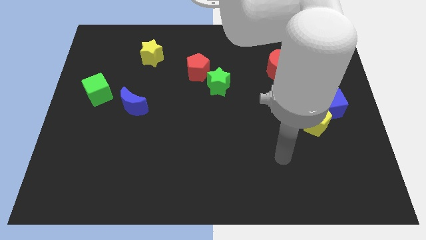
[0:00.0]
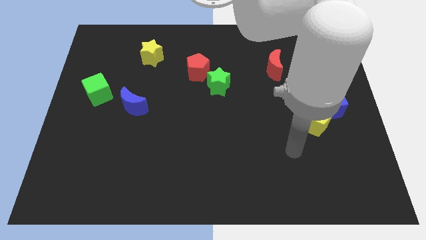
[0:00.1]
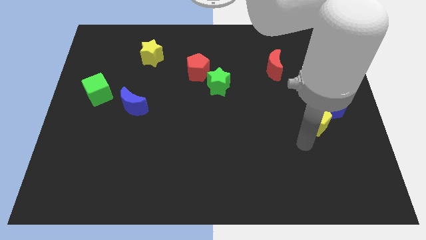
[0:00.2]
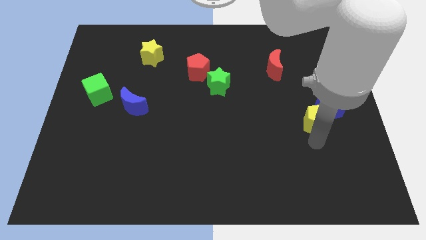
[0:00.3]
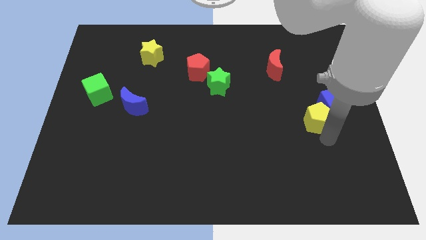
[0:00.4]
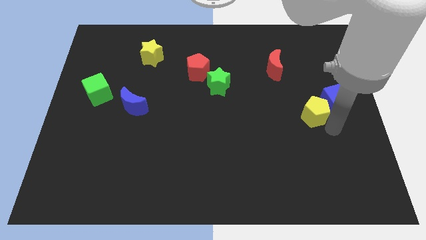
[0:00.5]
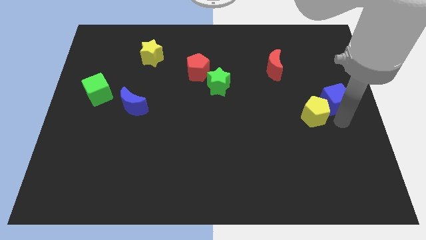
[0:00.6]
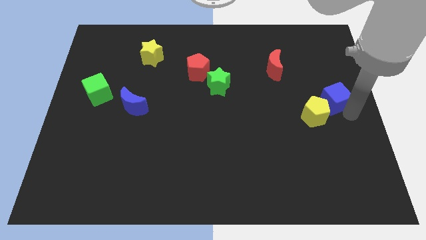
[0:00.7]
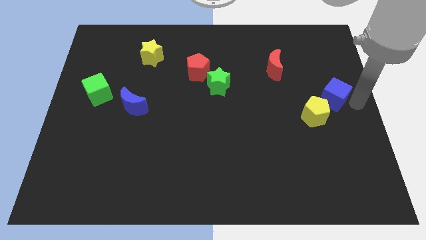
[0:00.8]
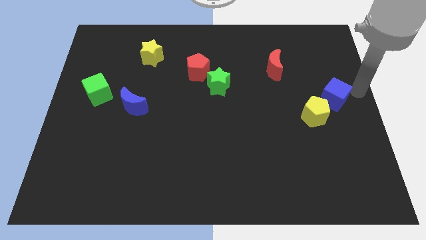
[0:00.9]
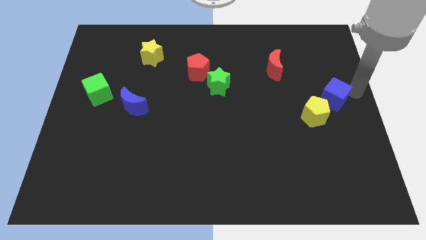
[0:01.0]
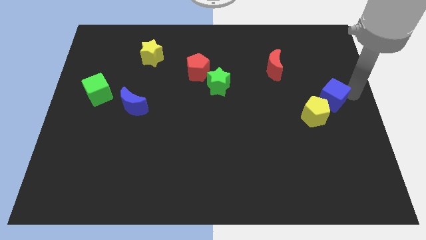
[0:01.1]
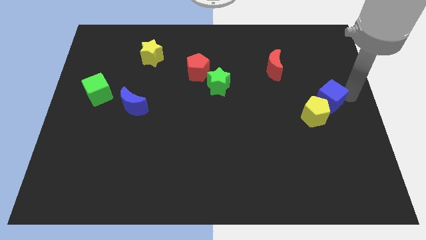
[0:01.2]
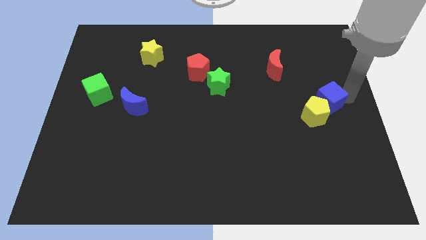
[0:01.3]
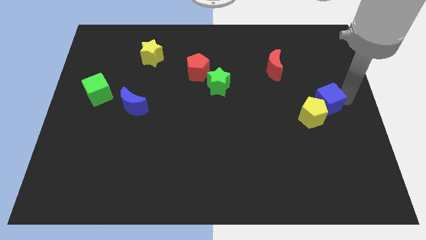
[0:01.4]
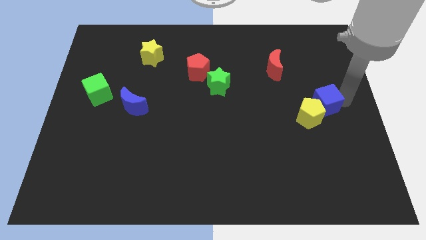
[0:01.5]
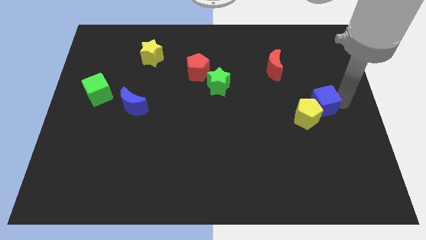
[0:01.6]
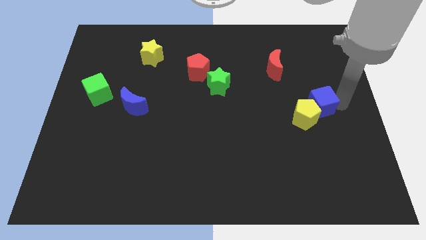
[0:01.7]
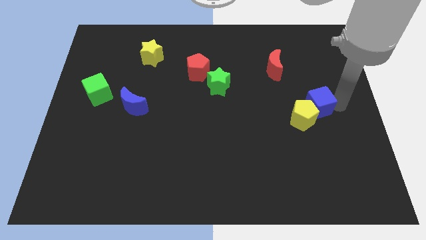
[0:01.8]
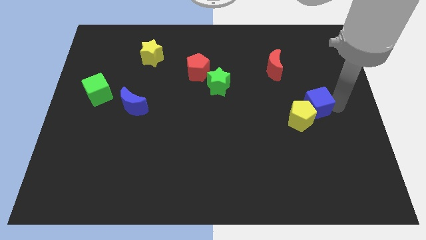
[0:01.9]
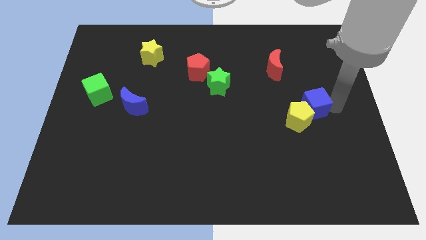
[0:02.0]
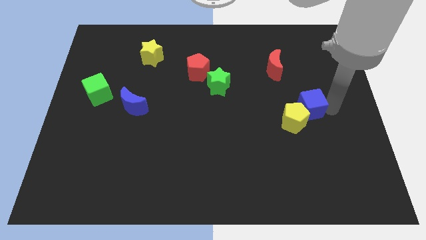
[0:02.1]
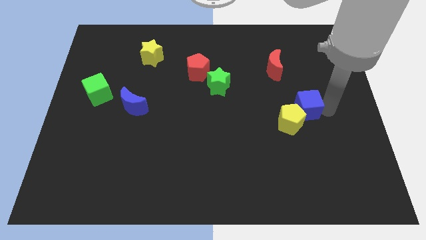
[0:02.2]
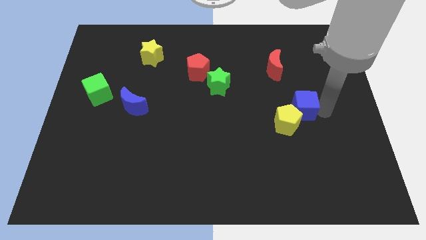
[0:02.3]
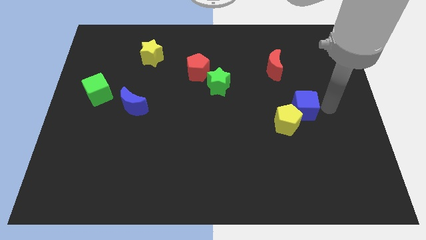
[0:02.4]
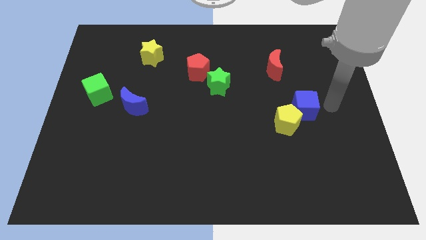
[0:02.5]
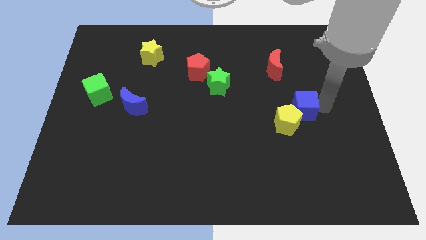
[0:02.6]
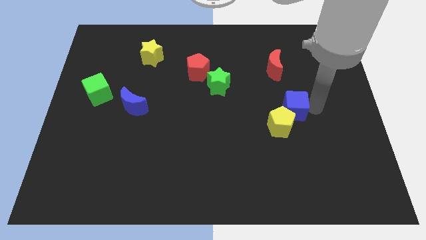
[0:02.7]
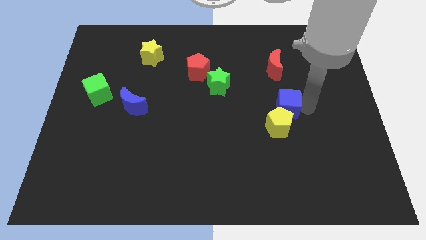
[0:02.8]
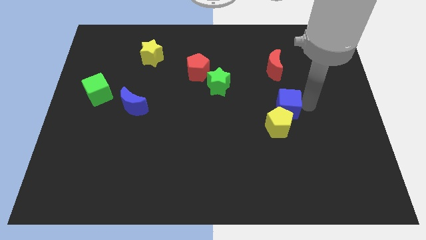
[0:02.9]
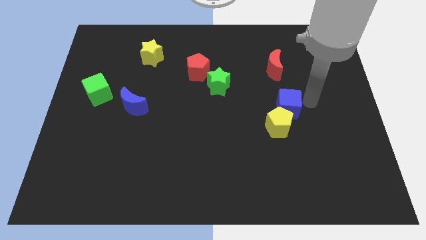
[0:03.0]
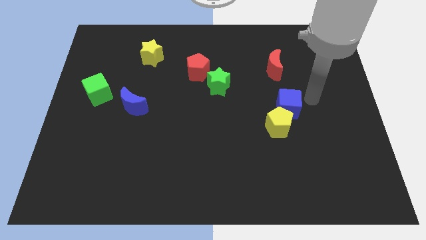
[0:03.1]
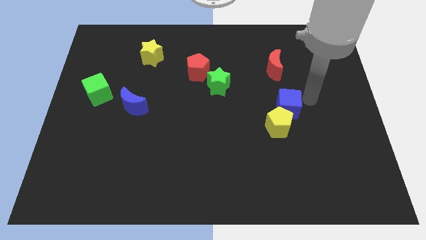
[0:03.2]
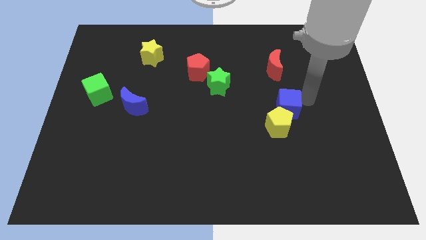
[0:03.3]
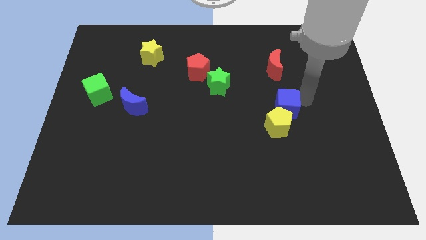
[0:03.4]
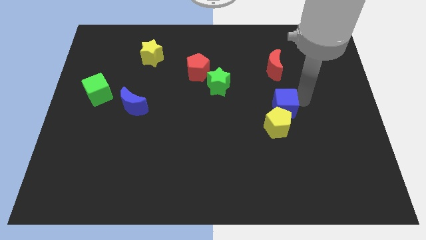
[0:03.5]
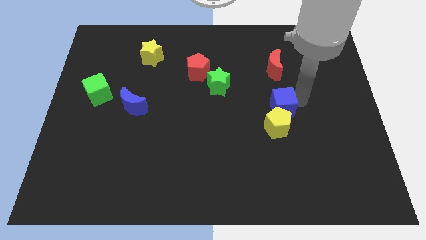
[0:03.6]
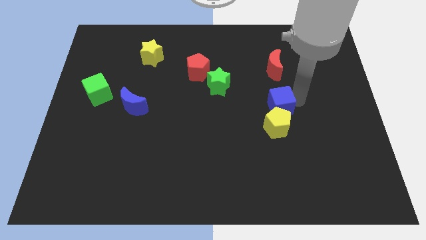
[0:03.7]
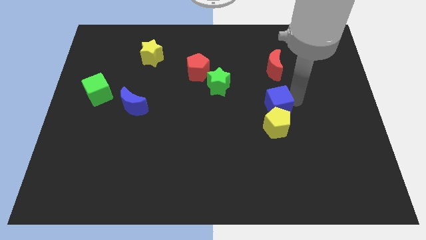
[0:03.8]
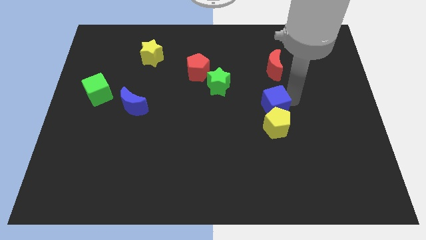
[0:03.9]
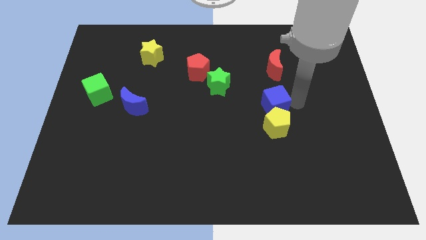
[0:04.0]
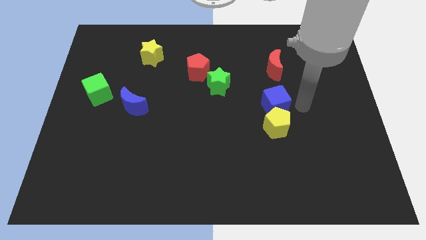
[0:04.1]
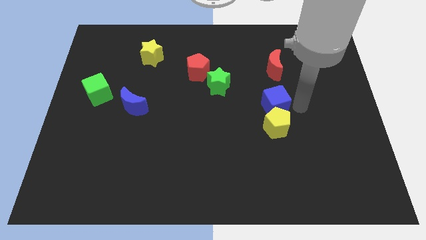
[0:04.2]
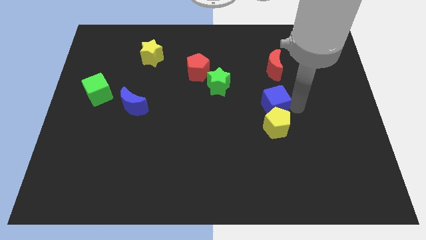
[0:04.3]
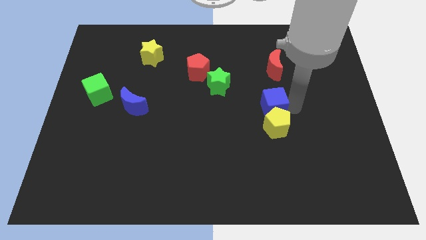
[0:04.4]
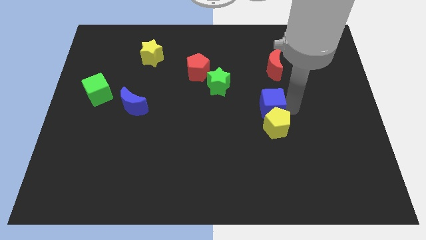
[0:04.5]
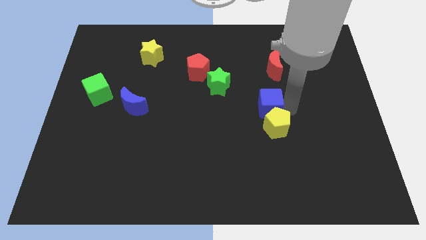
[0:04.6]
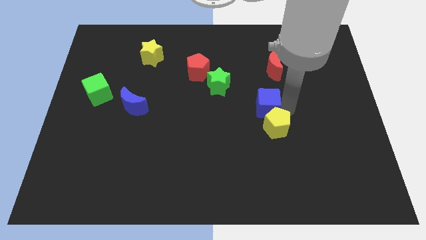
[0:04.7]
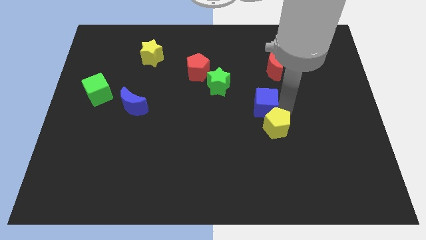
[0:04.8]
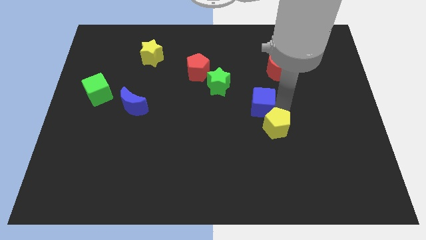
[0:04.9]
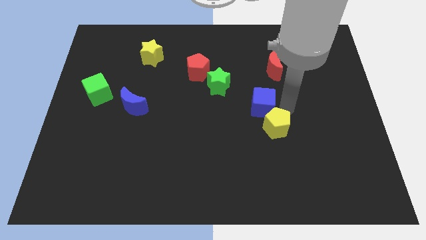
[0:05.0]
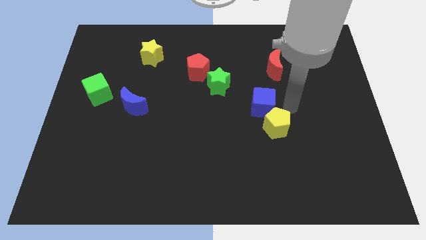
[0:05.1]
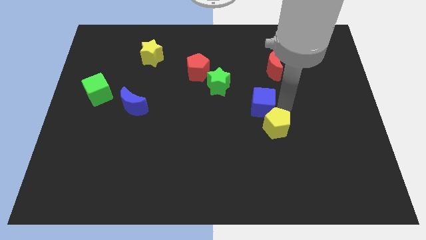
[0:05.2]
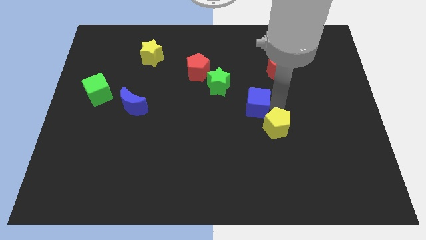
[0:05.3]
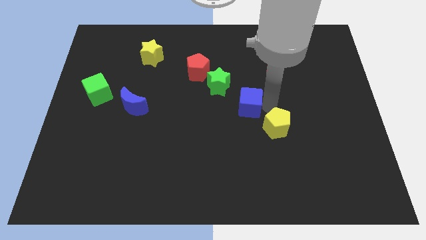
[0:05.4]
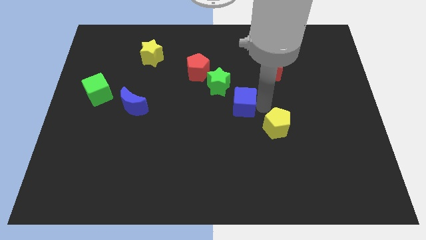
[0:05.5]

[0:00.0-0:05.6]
slide the blue cube to the left

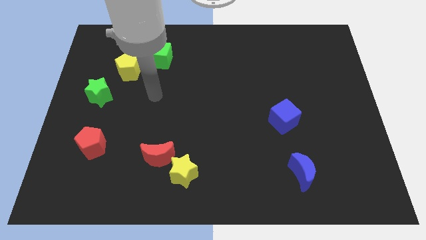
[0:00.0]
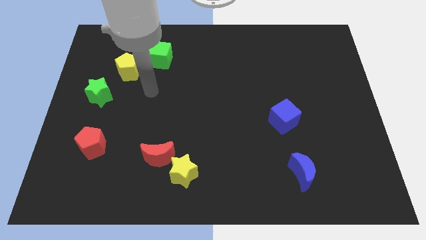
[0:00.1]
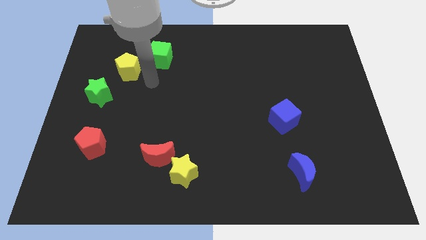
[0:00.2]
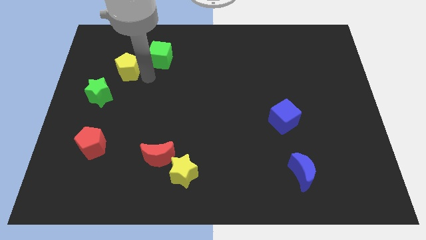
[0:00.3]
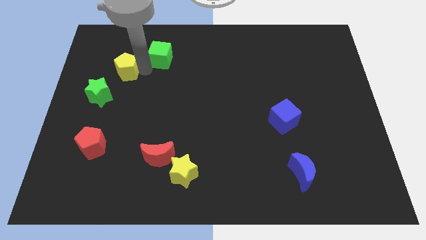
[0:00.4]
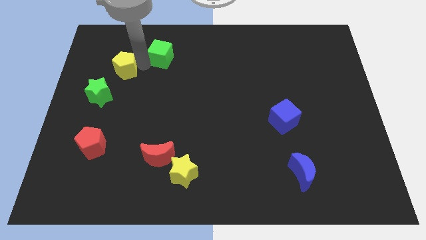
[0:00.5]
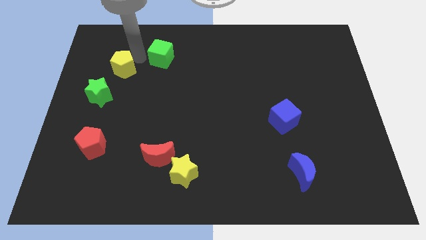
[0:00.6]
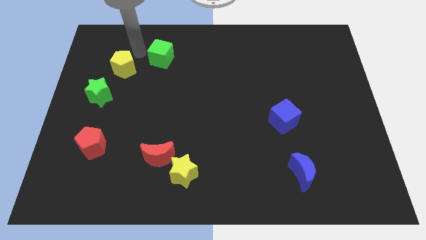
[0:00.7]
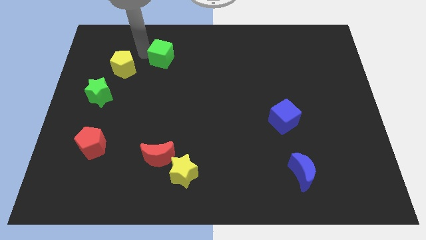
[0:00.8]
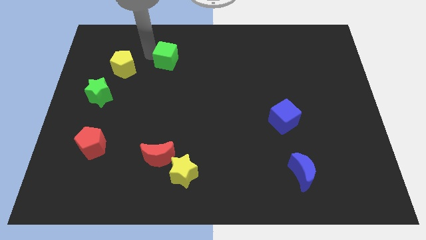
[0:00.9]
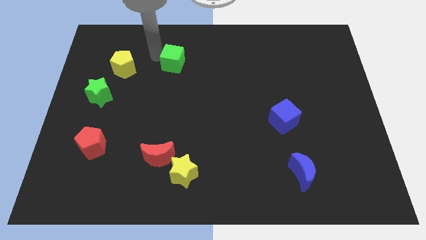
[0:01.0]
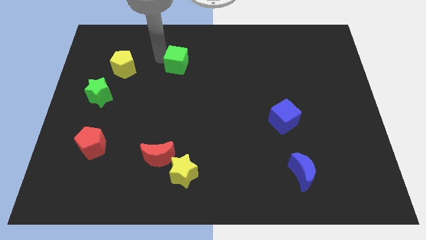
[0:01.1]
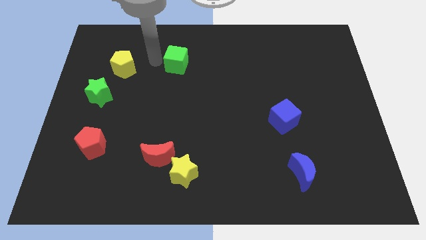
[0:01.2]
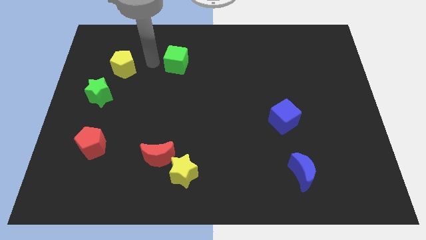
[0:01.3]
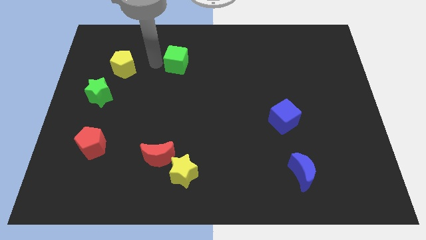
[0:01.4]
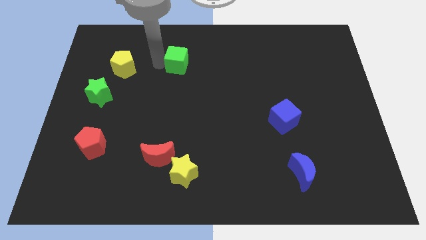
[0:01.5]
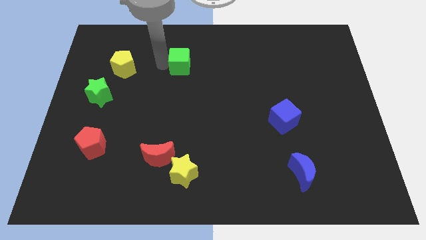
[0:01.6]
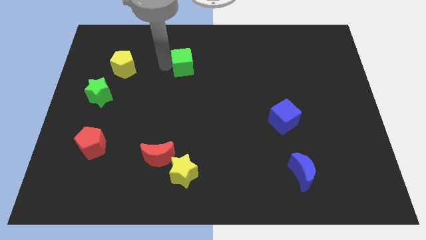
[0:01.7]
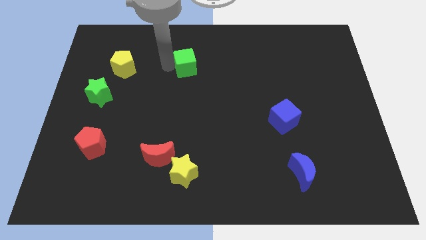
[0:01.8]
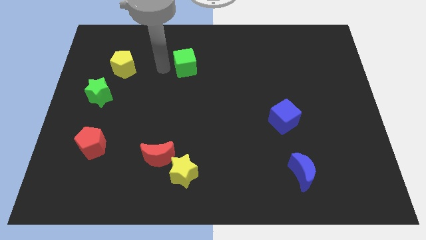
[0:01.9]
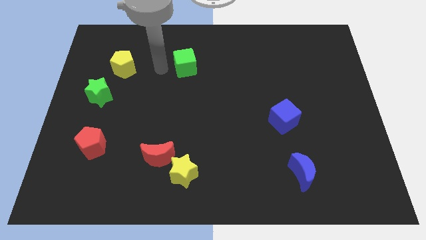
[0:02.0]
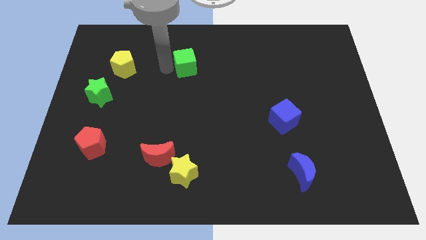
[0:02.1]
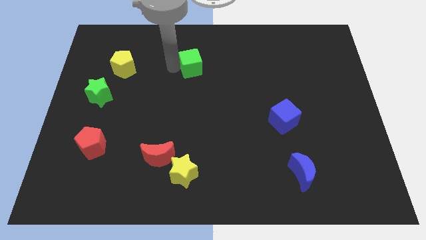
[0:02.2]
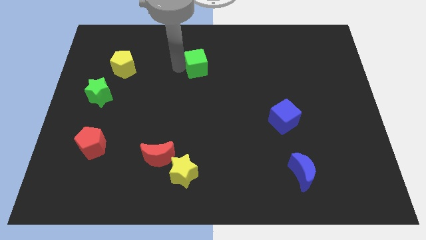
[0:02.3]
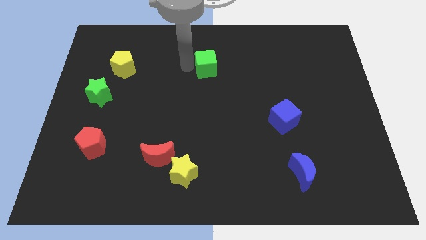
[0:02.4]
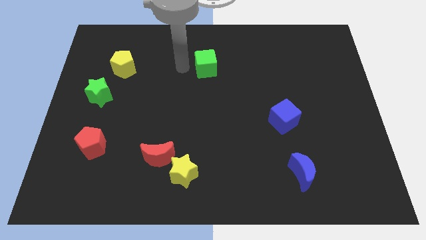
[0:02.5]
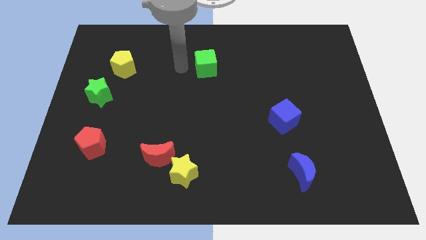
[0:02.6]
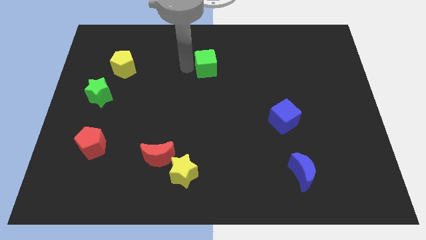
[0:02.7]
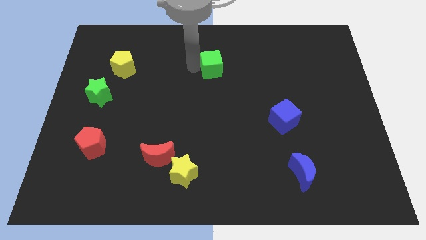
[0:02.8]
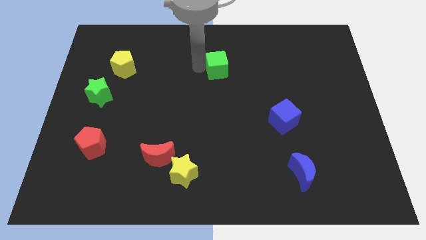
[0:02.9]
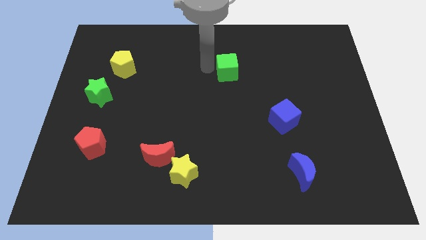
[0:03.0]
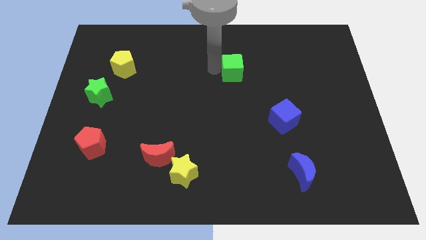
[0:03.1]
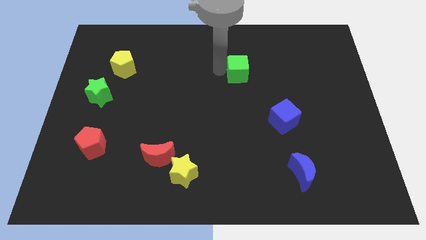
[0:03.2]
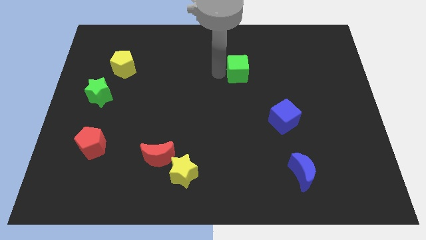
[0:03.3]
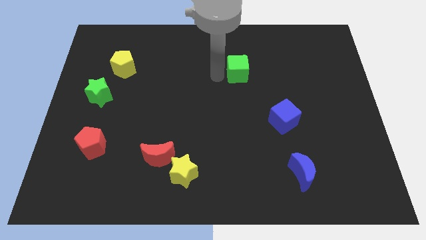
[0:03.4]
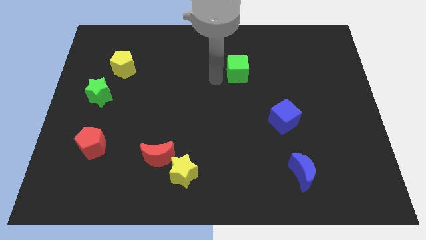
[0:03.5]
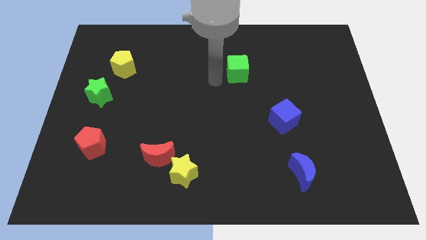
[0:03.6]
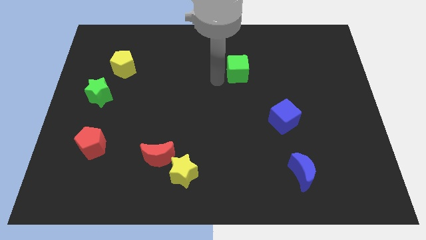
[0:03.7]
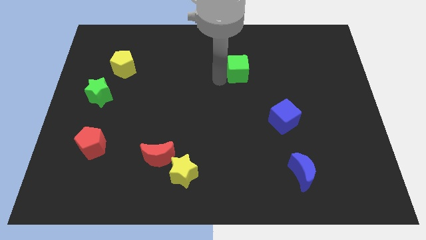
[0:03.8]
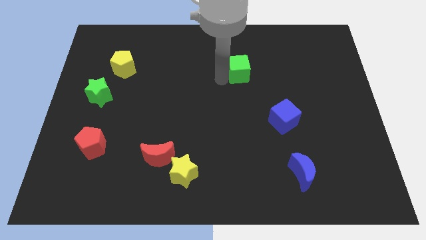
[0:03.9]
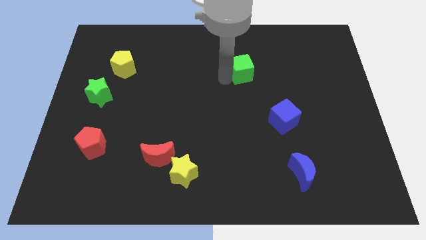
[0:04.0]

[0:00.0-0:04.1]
slide the green cube right
